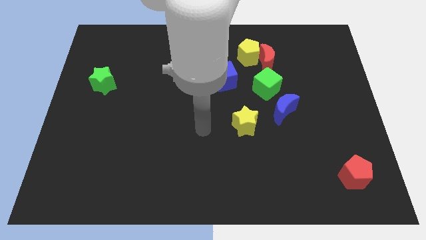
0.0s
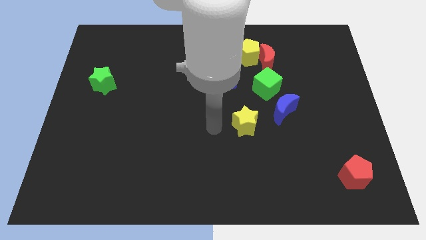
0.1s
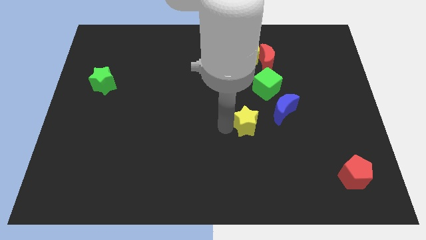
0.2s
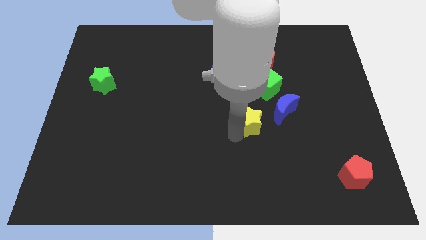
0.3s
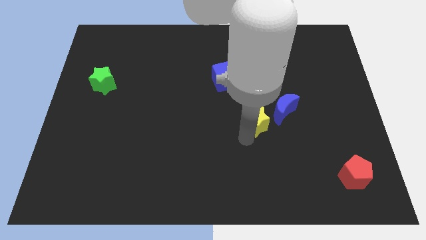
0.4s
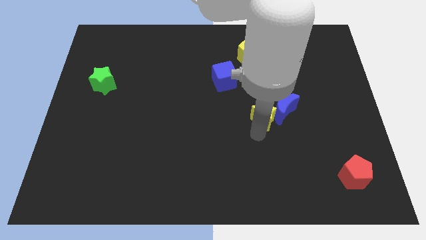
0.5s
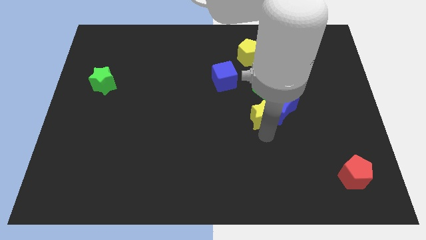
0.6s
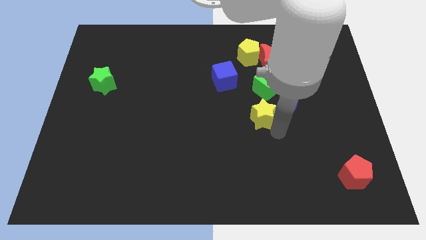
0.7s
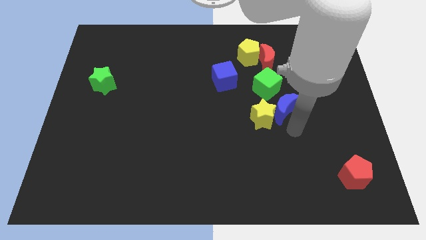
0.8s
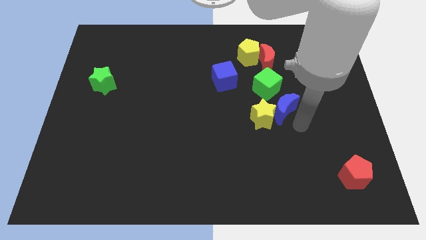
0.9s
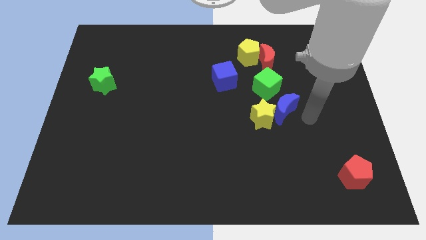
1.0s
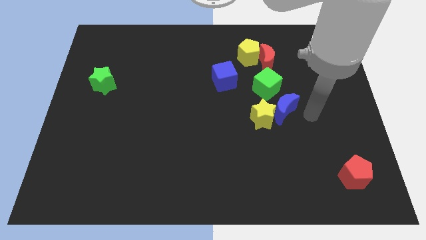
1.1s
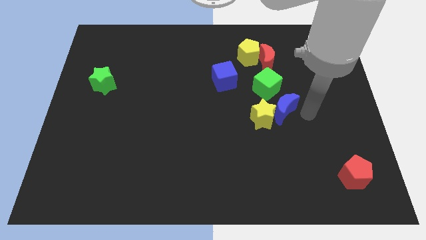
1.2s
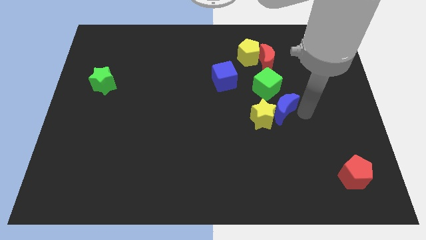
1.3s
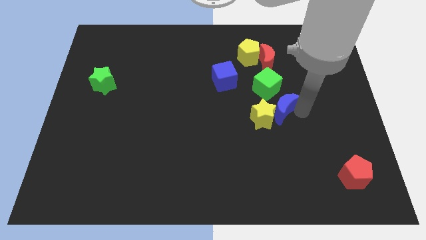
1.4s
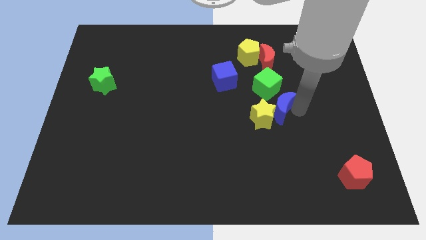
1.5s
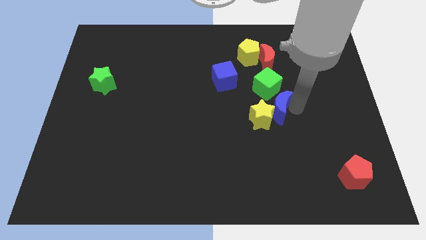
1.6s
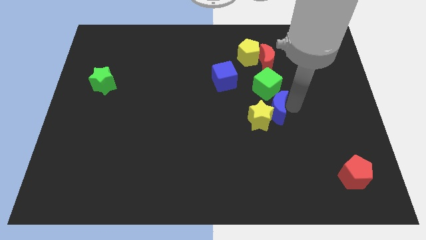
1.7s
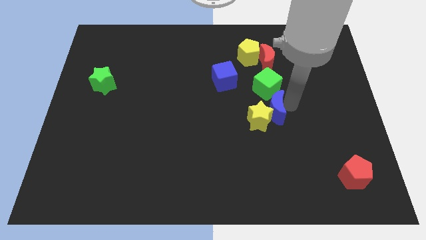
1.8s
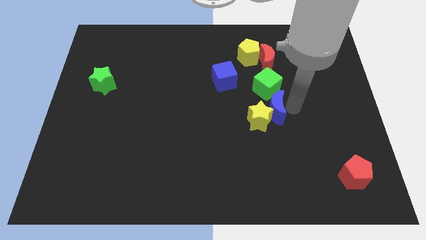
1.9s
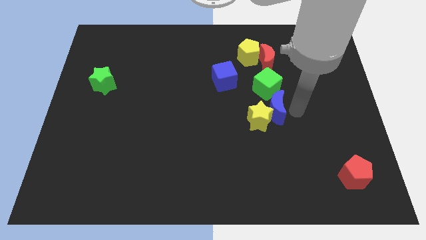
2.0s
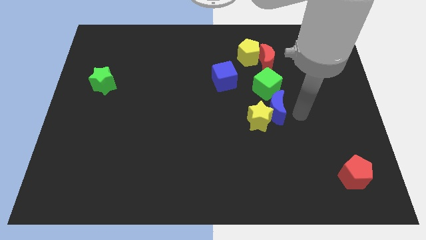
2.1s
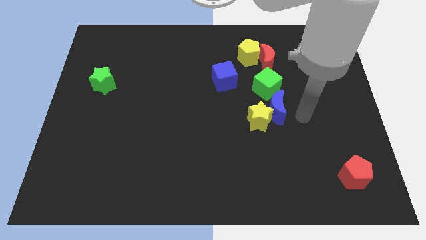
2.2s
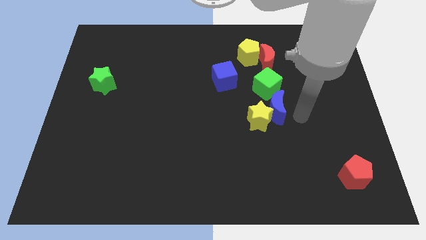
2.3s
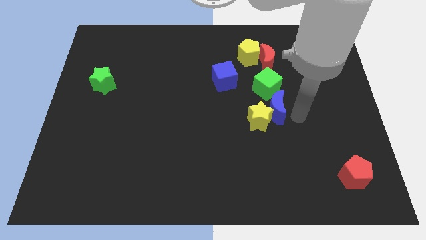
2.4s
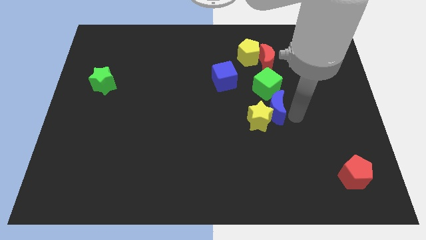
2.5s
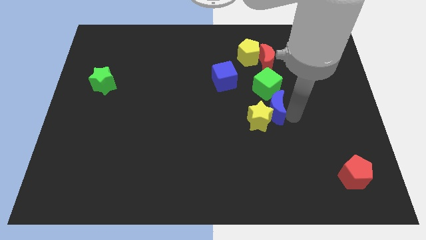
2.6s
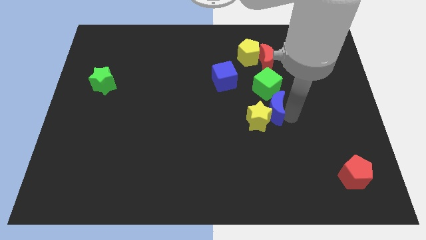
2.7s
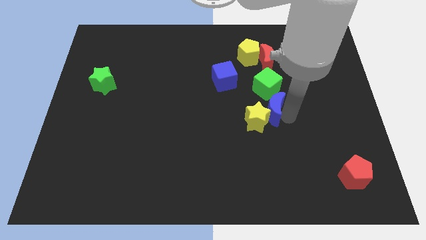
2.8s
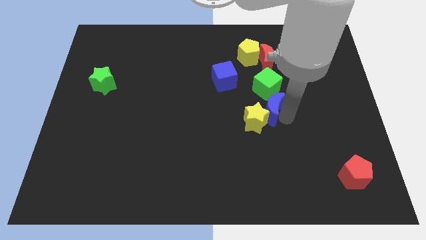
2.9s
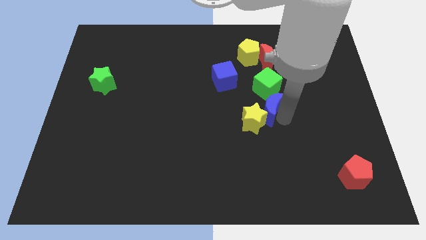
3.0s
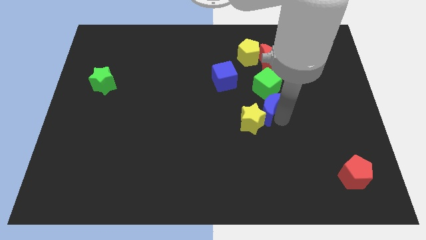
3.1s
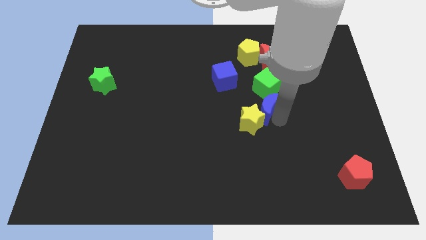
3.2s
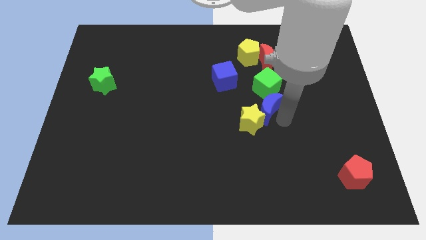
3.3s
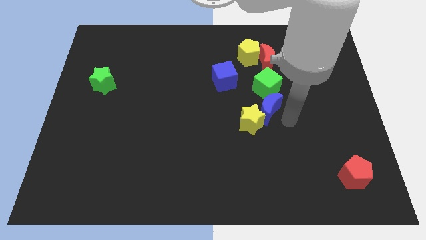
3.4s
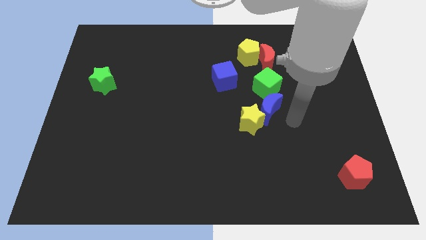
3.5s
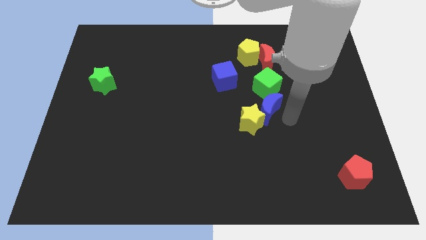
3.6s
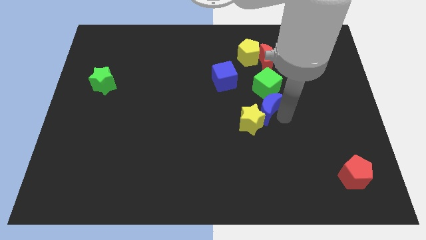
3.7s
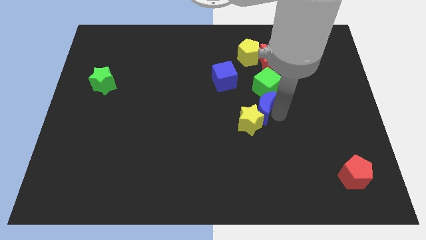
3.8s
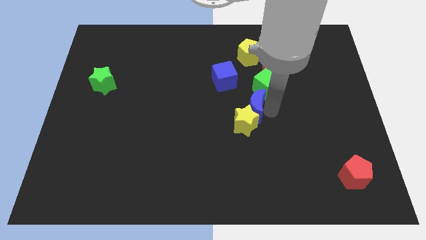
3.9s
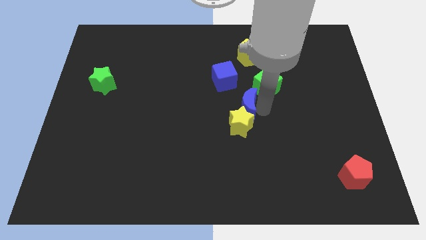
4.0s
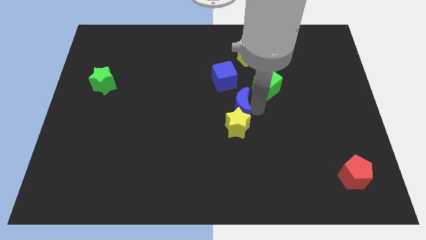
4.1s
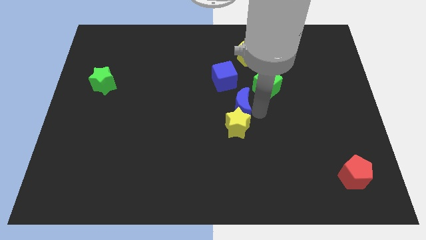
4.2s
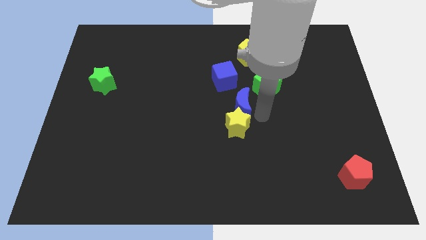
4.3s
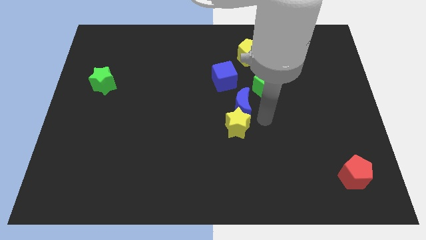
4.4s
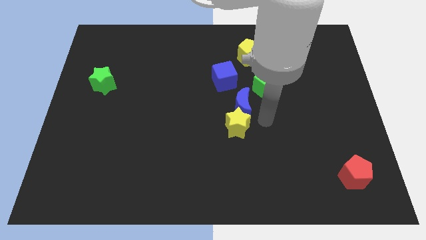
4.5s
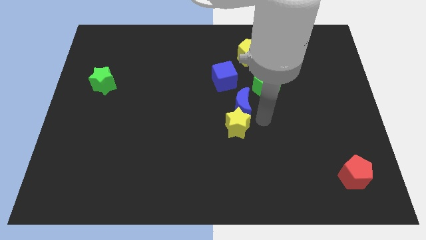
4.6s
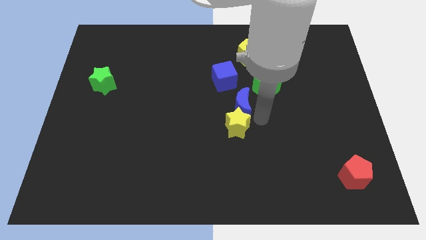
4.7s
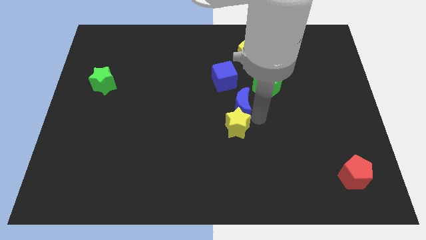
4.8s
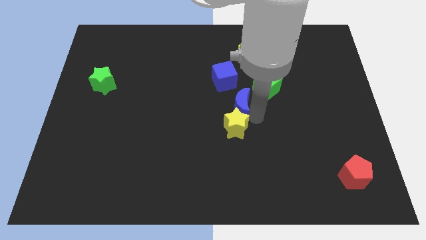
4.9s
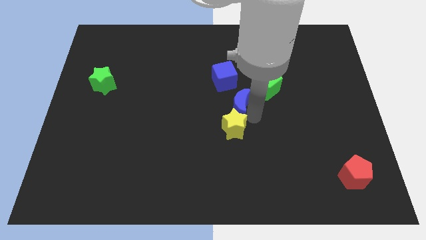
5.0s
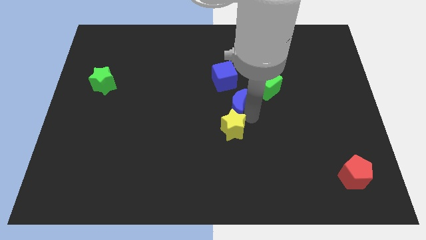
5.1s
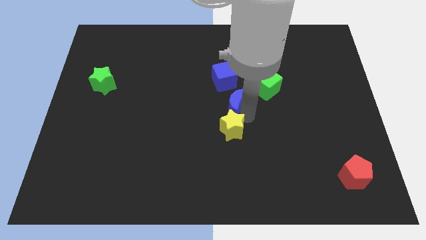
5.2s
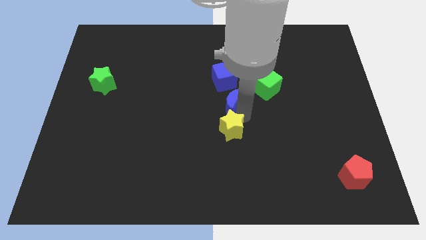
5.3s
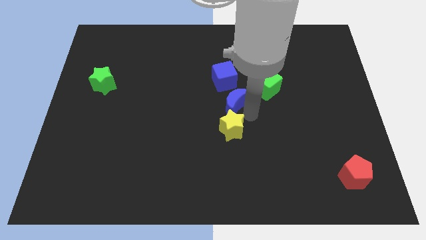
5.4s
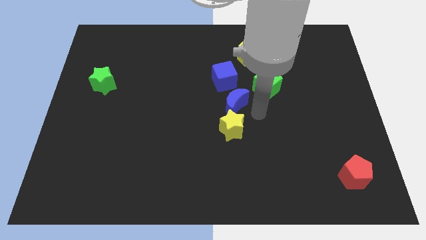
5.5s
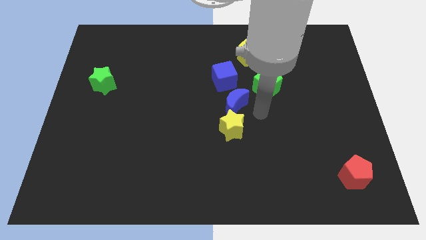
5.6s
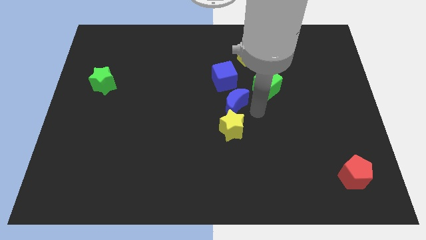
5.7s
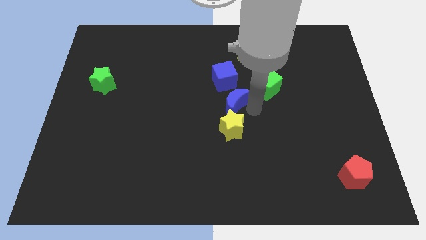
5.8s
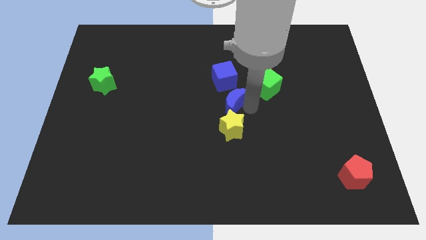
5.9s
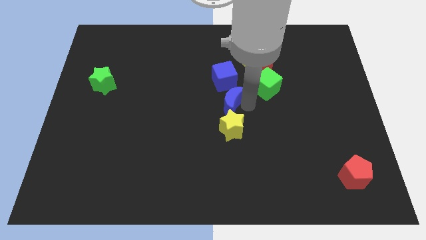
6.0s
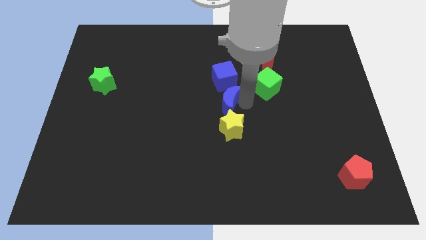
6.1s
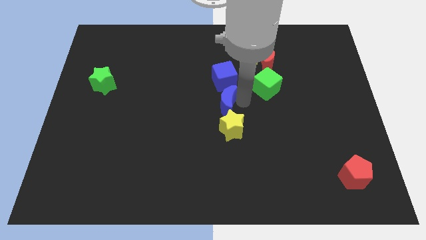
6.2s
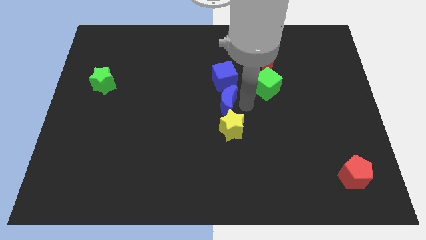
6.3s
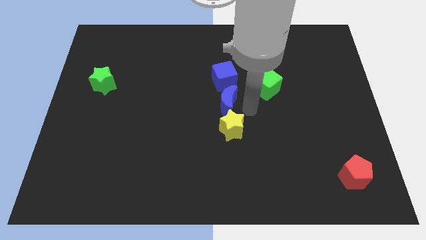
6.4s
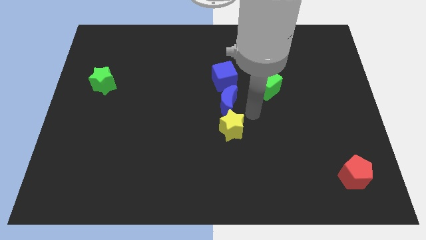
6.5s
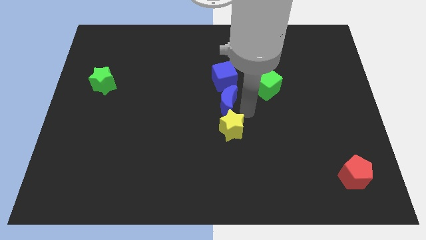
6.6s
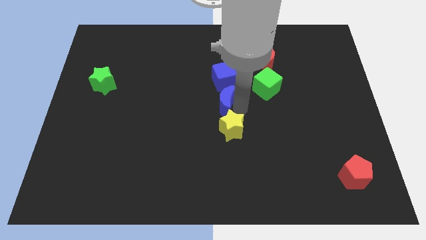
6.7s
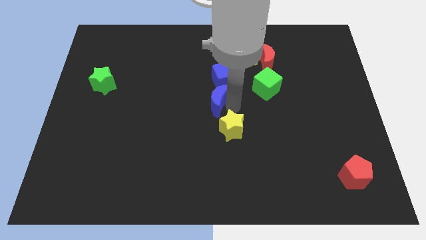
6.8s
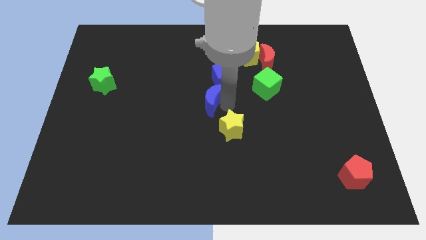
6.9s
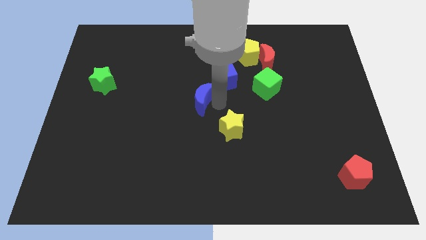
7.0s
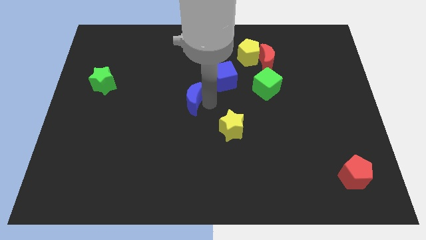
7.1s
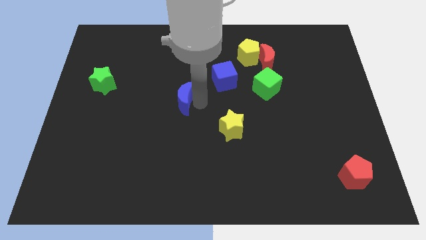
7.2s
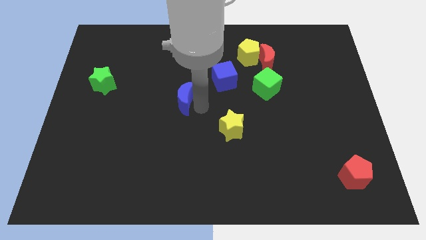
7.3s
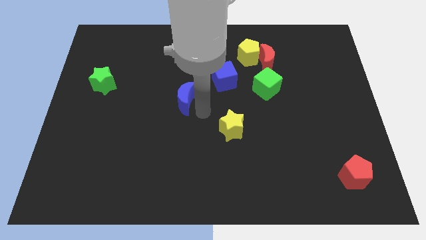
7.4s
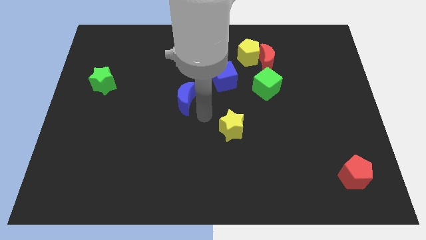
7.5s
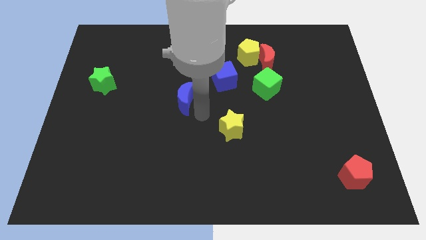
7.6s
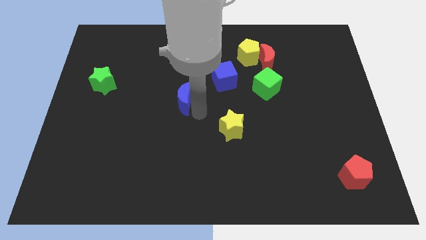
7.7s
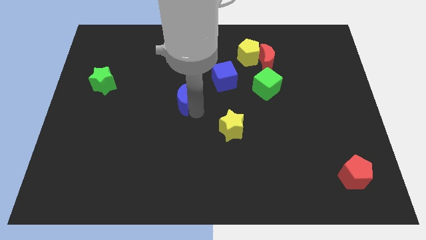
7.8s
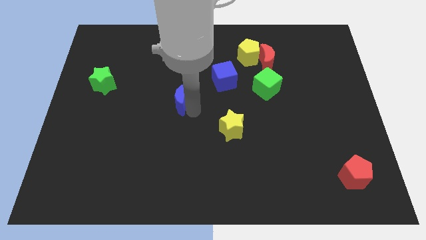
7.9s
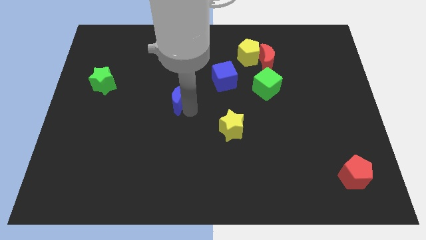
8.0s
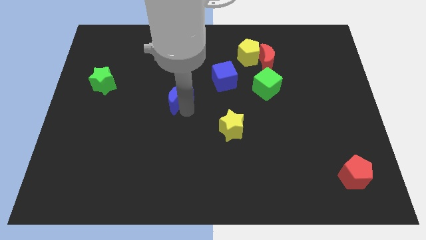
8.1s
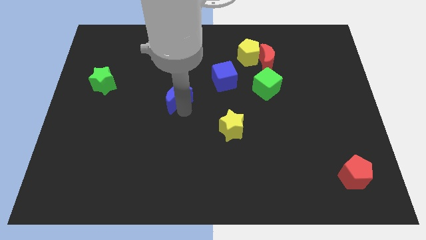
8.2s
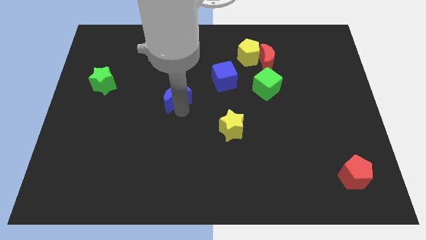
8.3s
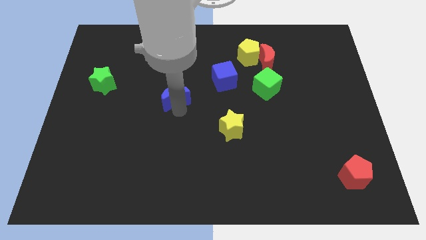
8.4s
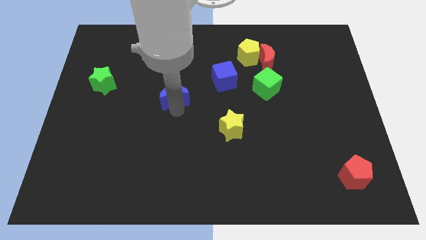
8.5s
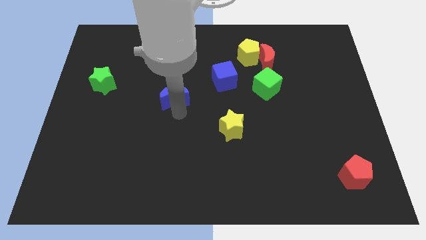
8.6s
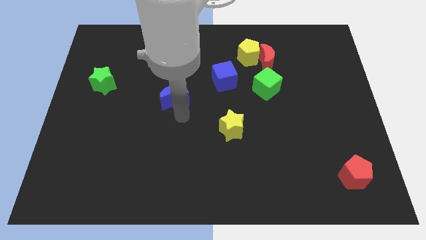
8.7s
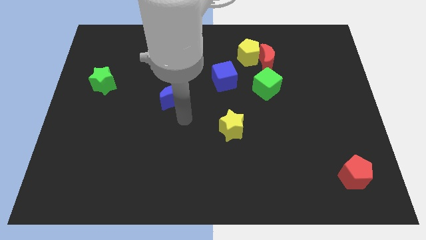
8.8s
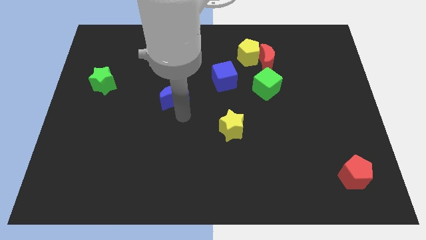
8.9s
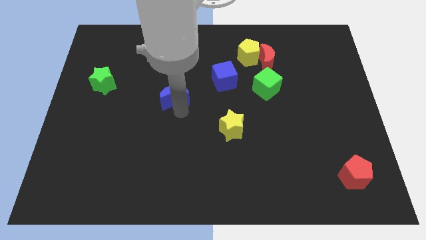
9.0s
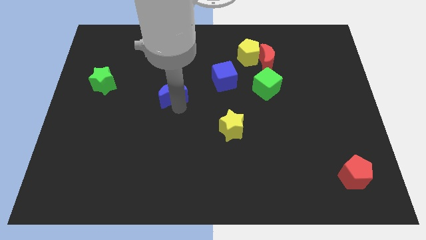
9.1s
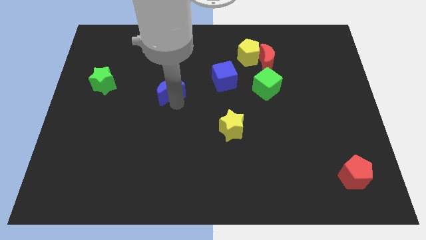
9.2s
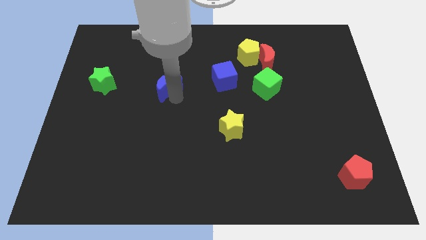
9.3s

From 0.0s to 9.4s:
slide the blue moon just right of the green star
